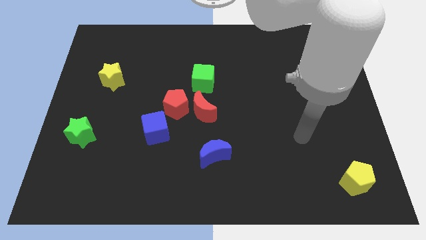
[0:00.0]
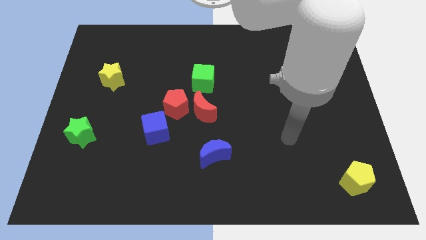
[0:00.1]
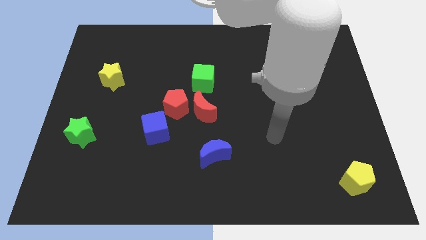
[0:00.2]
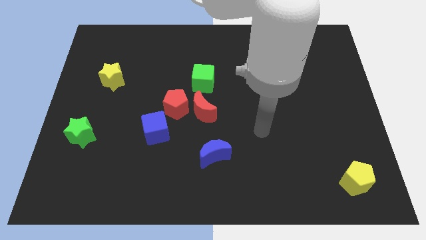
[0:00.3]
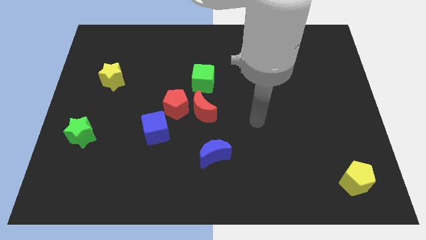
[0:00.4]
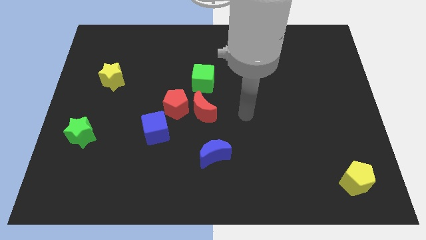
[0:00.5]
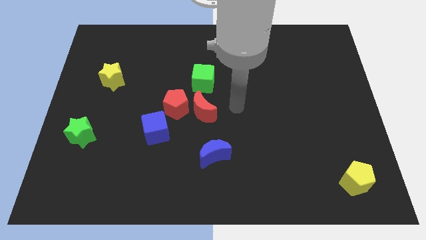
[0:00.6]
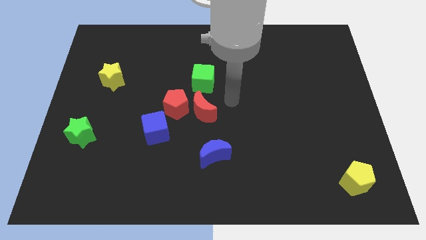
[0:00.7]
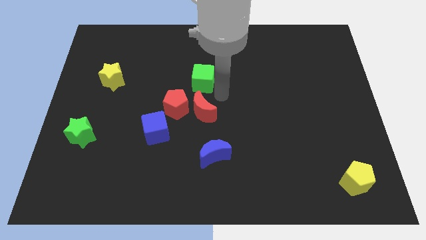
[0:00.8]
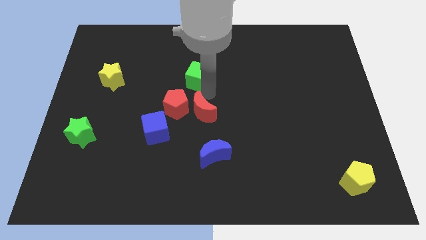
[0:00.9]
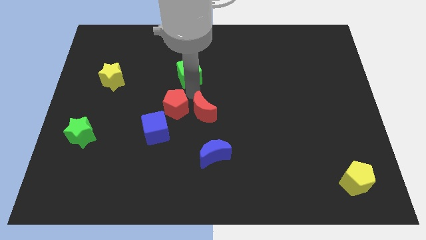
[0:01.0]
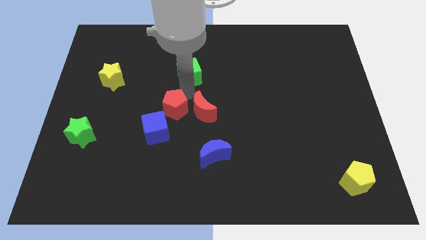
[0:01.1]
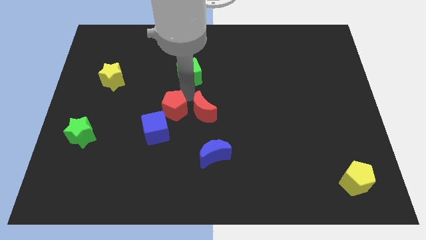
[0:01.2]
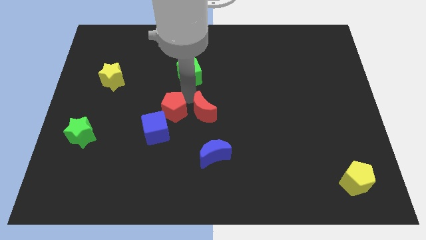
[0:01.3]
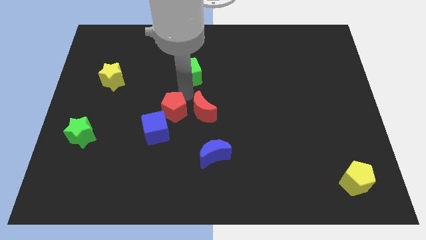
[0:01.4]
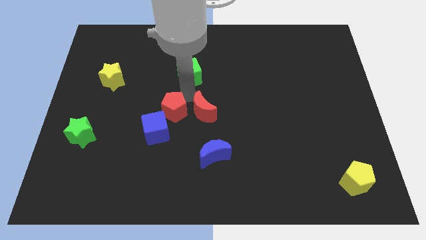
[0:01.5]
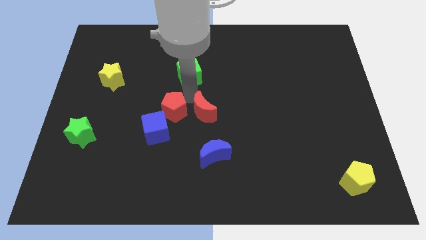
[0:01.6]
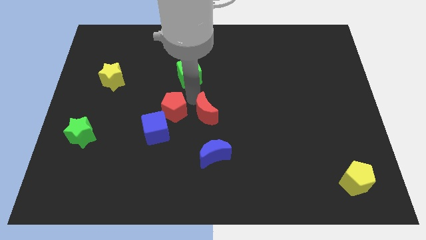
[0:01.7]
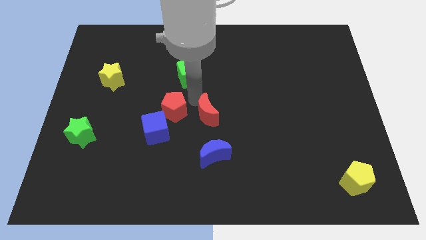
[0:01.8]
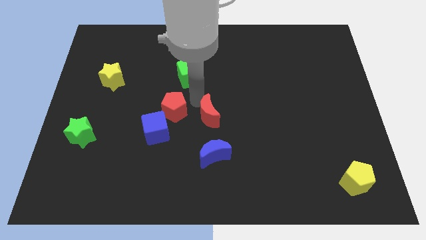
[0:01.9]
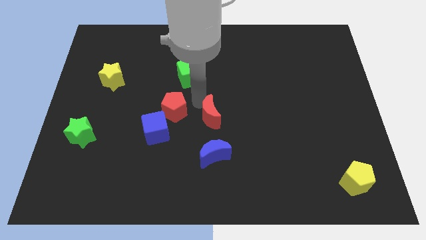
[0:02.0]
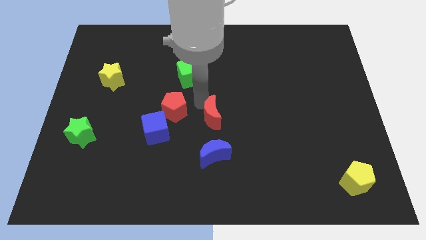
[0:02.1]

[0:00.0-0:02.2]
pull the red moon apart from the red pentagon and green cube

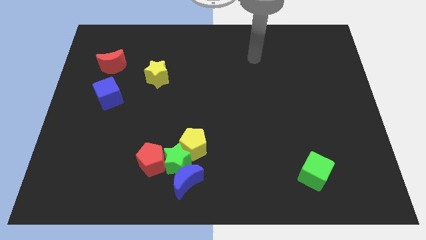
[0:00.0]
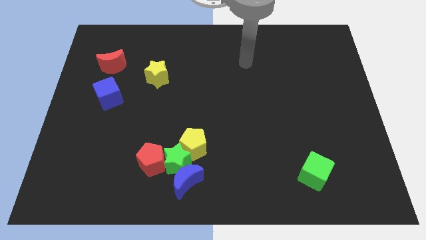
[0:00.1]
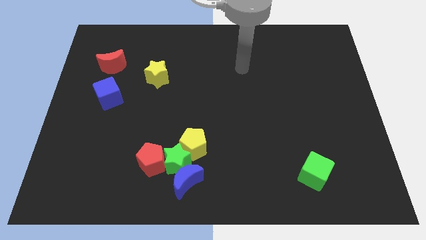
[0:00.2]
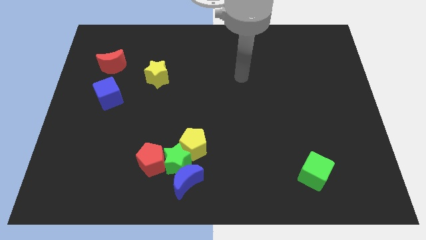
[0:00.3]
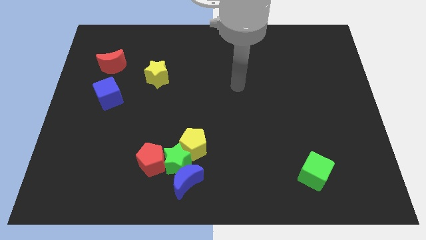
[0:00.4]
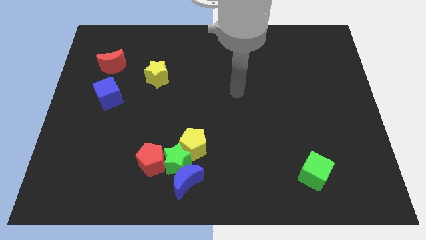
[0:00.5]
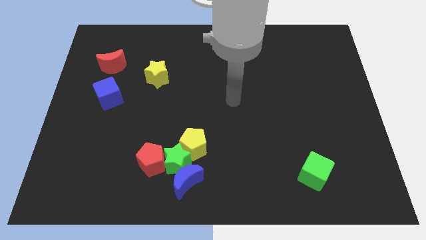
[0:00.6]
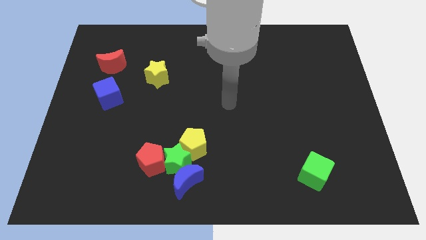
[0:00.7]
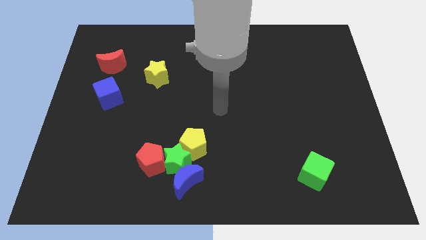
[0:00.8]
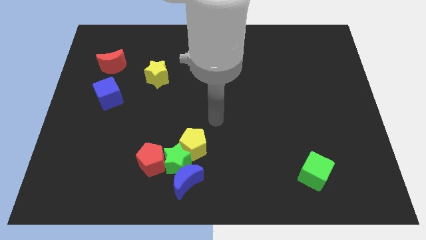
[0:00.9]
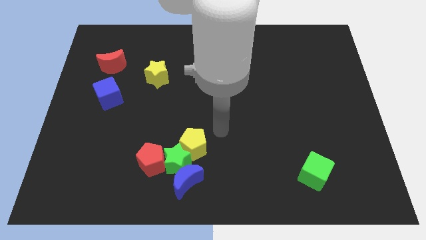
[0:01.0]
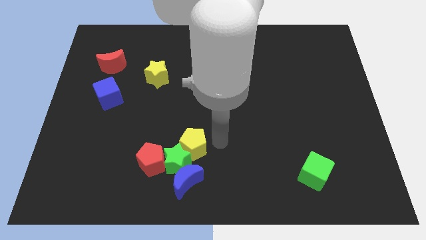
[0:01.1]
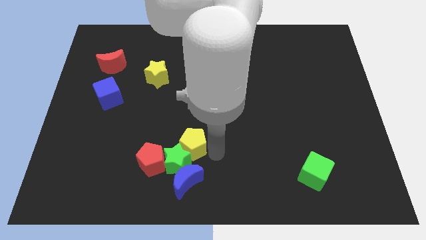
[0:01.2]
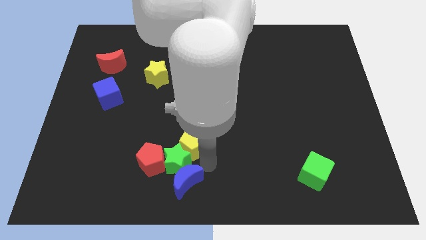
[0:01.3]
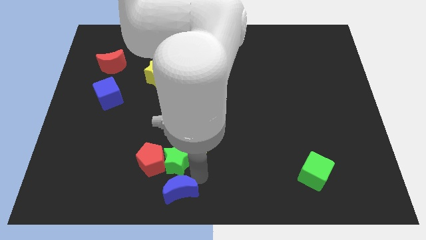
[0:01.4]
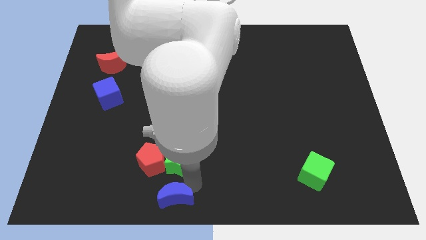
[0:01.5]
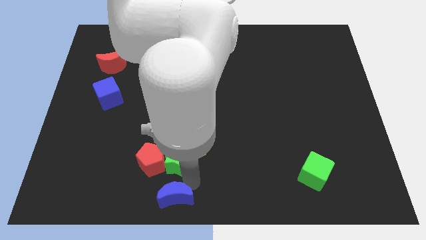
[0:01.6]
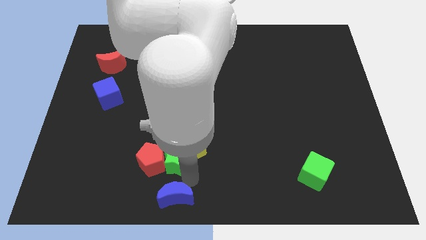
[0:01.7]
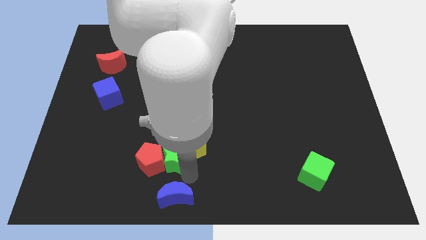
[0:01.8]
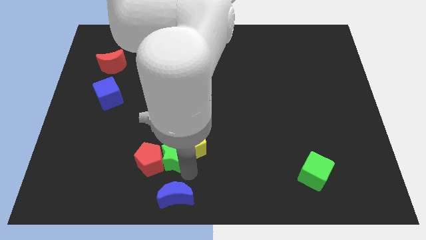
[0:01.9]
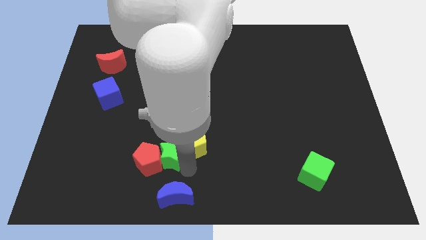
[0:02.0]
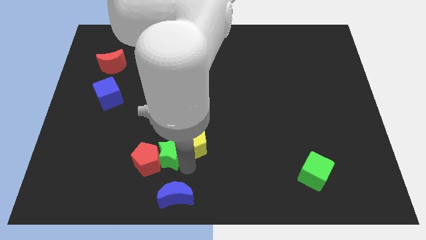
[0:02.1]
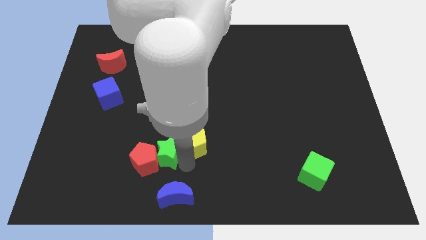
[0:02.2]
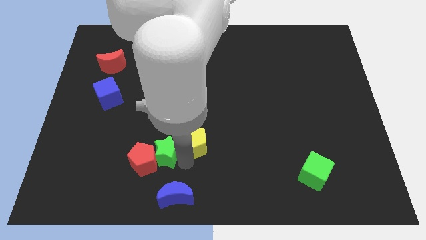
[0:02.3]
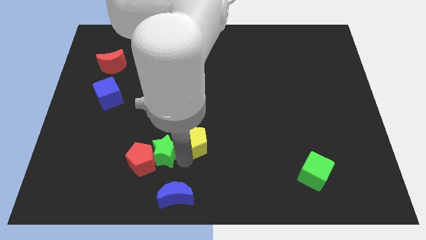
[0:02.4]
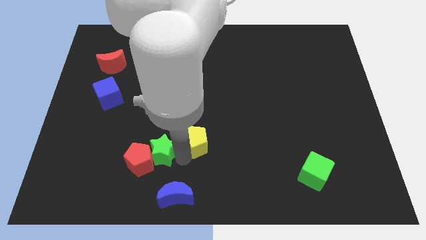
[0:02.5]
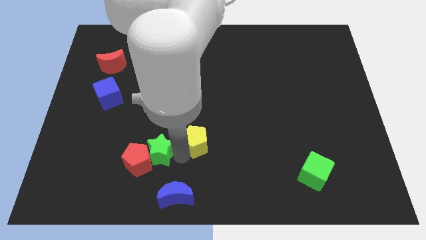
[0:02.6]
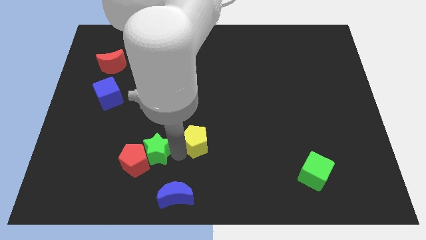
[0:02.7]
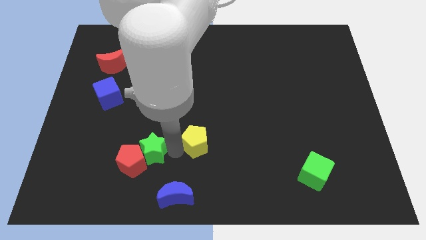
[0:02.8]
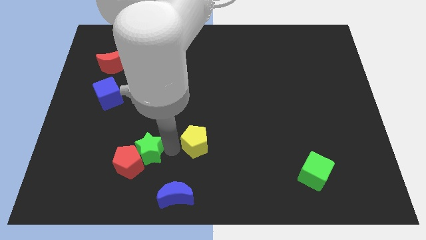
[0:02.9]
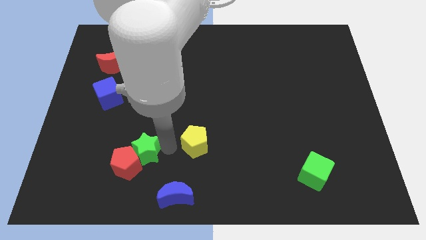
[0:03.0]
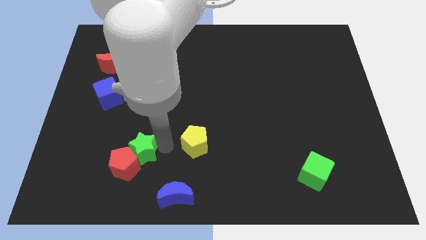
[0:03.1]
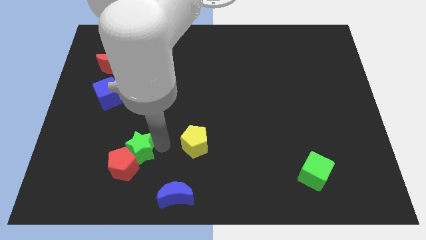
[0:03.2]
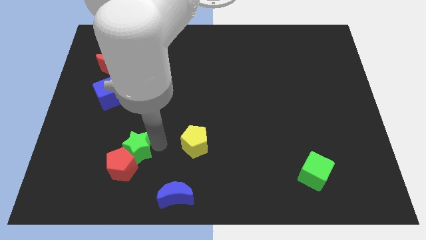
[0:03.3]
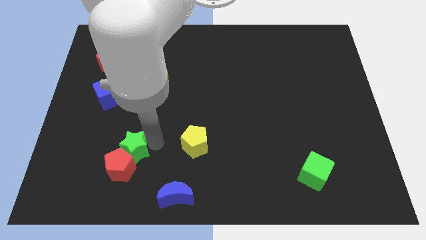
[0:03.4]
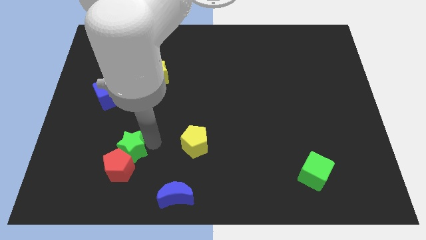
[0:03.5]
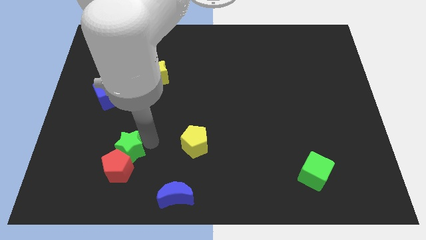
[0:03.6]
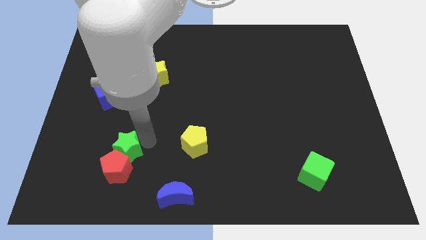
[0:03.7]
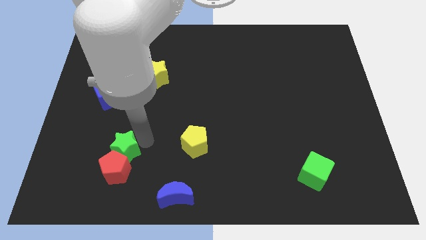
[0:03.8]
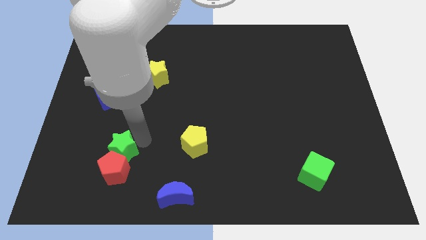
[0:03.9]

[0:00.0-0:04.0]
move the green star away from the yellow pentagon, blue moon, and red pentagon

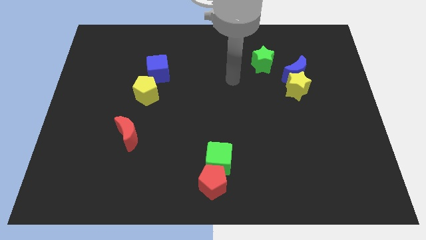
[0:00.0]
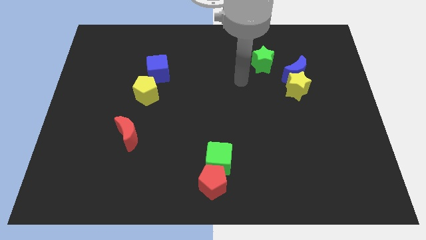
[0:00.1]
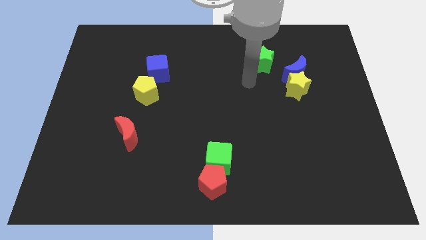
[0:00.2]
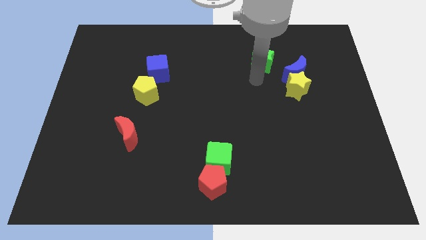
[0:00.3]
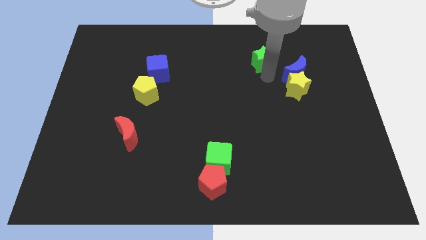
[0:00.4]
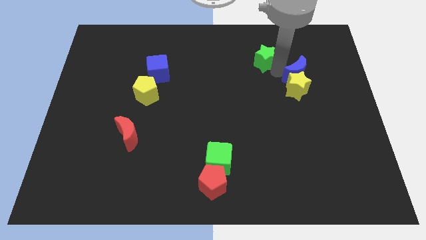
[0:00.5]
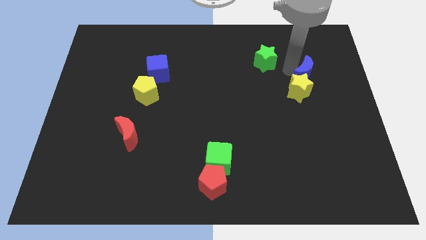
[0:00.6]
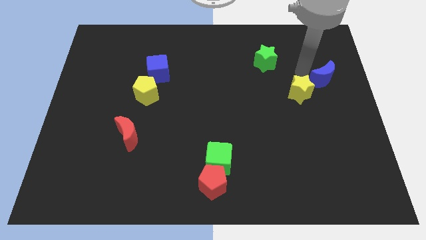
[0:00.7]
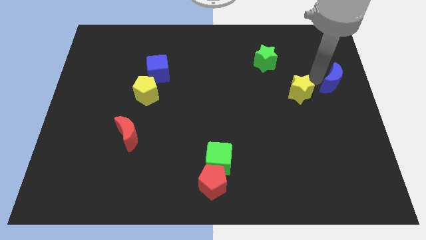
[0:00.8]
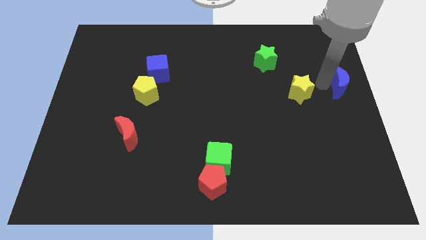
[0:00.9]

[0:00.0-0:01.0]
move the yellow star away from the blue moon

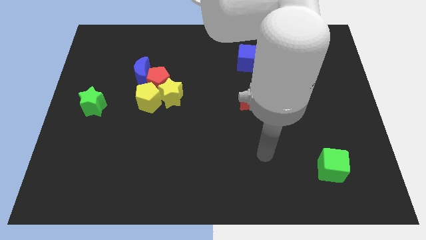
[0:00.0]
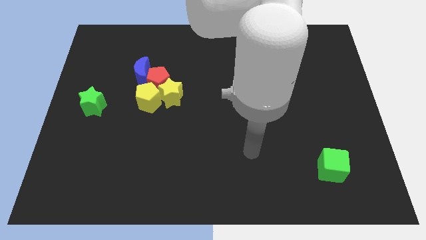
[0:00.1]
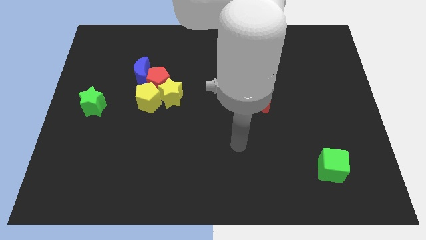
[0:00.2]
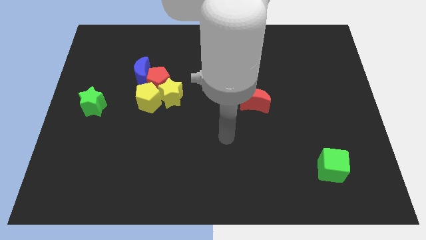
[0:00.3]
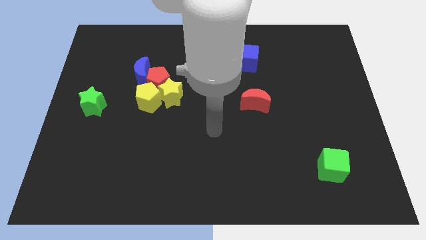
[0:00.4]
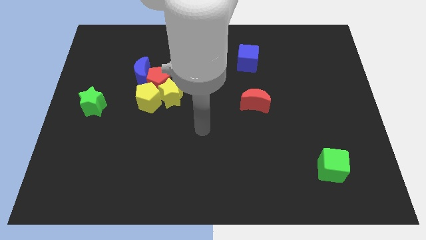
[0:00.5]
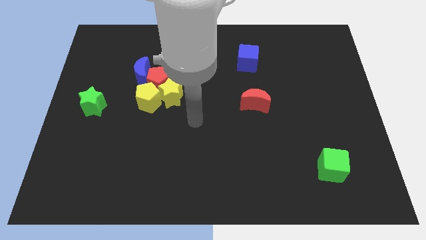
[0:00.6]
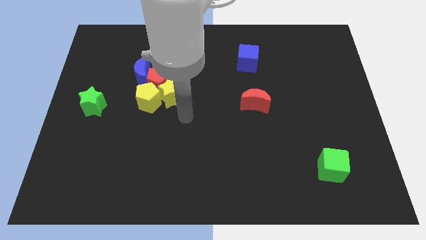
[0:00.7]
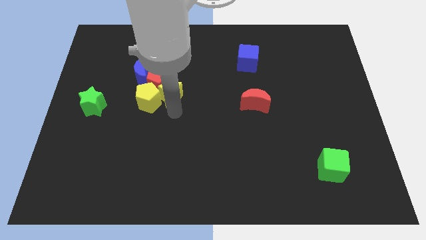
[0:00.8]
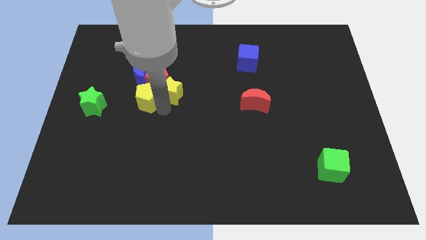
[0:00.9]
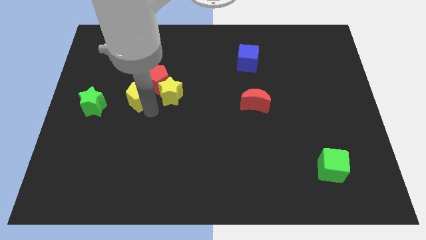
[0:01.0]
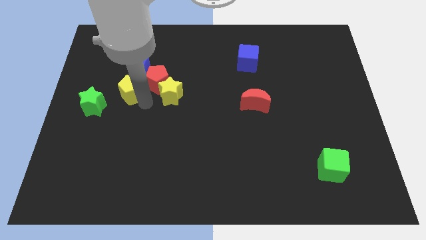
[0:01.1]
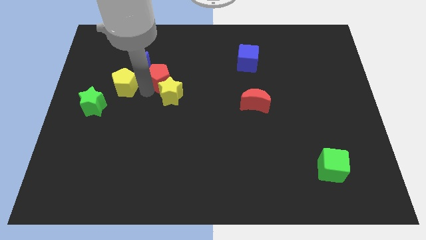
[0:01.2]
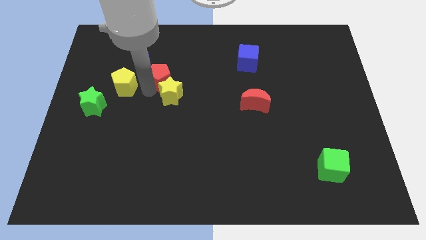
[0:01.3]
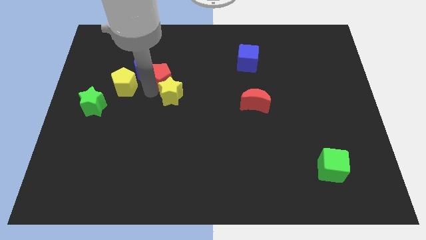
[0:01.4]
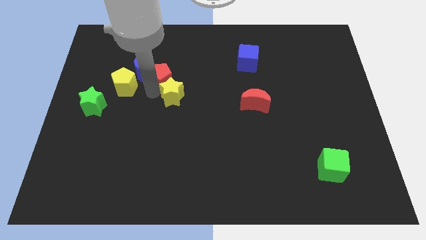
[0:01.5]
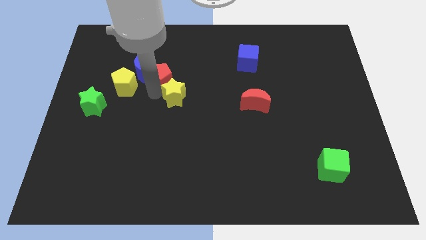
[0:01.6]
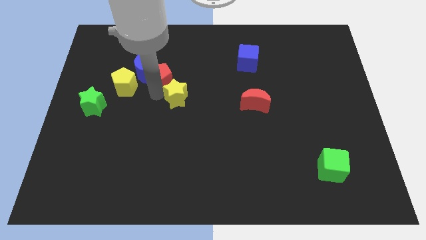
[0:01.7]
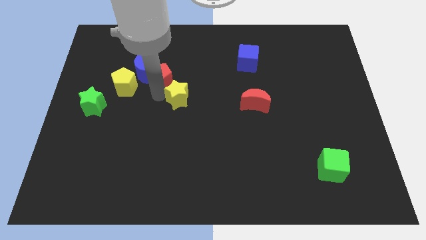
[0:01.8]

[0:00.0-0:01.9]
pull the yellow star apart from the red pentagon and yellow pentagon

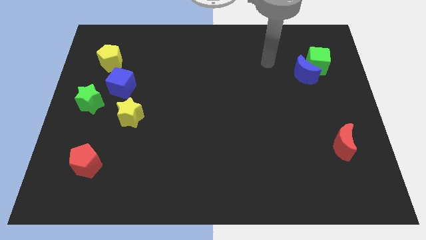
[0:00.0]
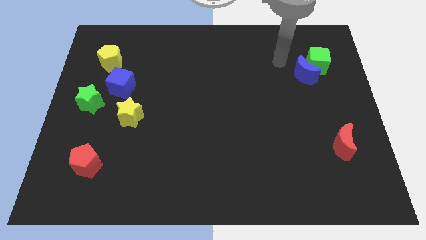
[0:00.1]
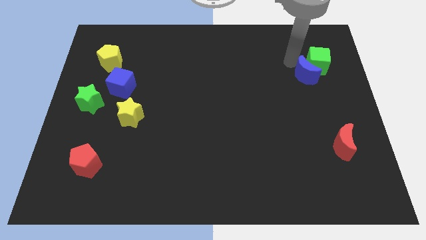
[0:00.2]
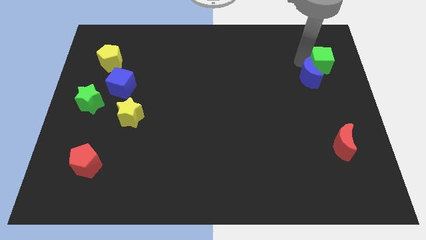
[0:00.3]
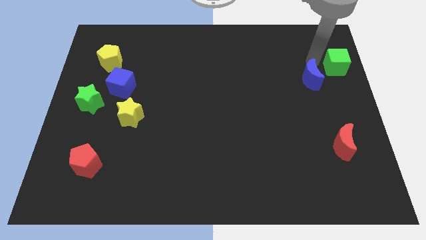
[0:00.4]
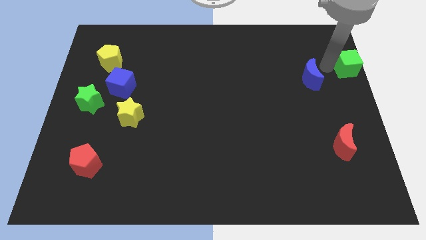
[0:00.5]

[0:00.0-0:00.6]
separate the blue moon from the green cube
